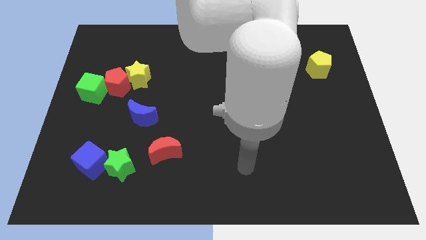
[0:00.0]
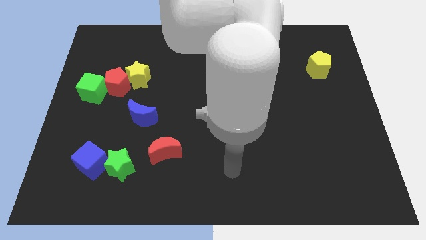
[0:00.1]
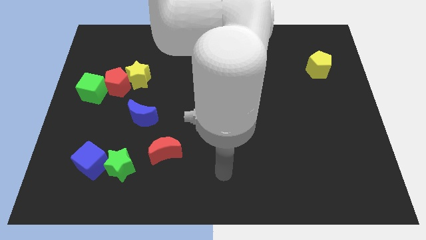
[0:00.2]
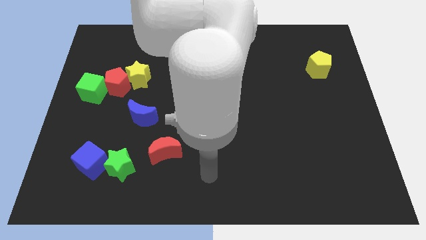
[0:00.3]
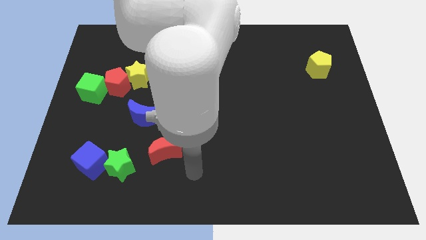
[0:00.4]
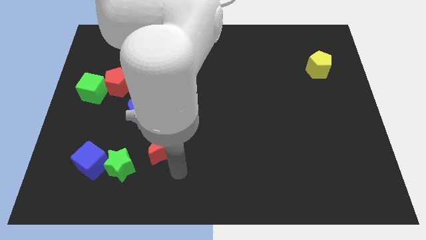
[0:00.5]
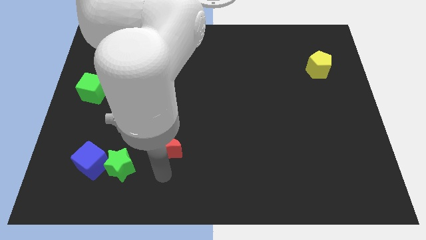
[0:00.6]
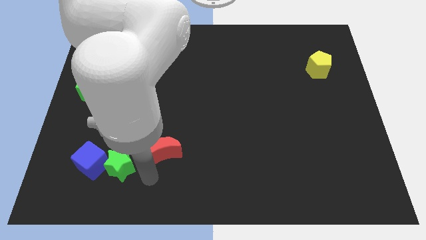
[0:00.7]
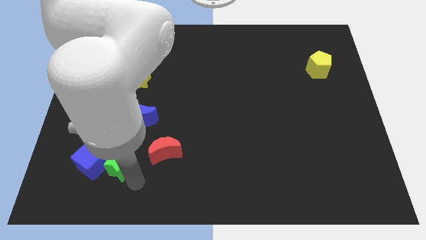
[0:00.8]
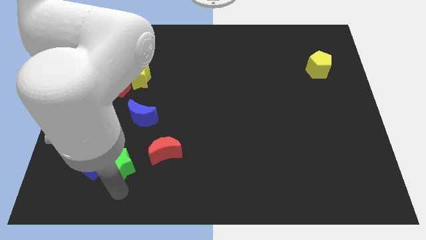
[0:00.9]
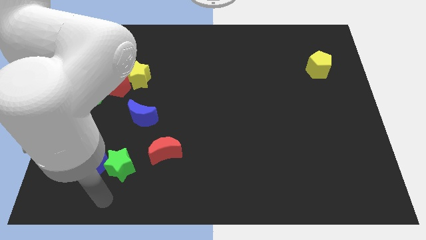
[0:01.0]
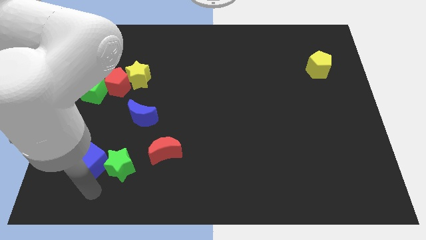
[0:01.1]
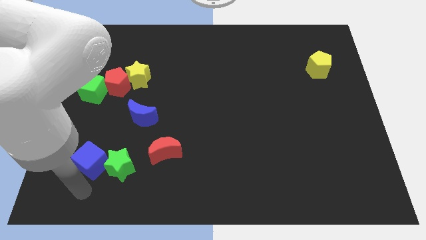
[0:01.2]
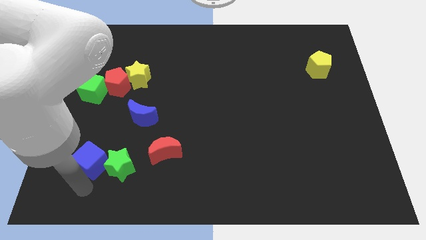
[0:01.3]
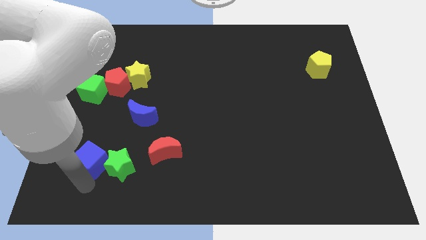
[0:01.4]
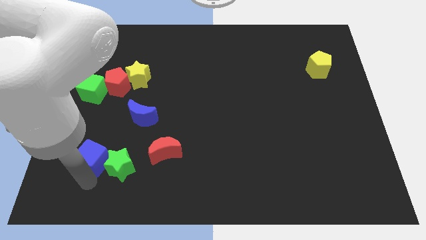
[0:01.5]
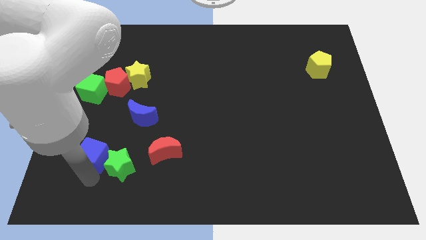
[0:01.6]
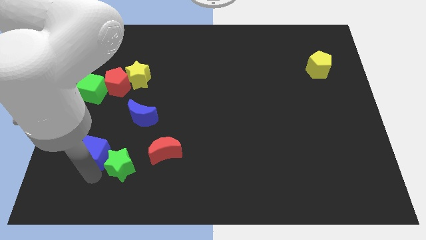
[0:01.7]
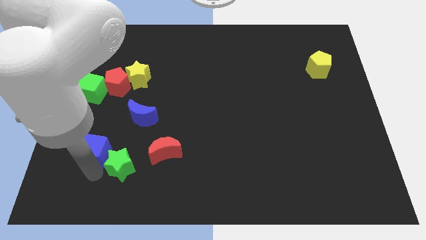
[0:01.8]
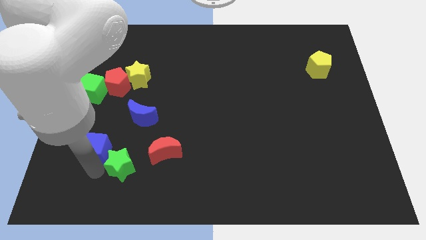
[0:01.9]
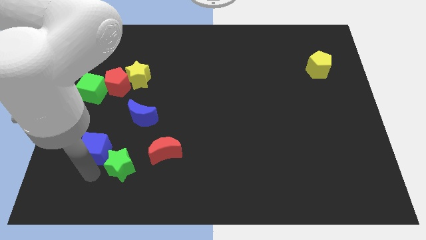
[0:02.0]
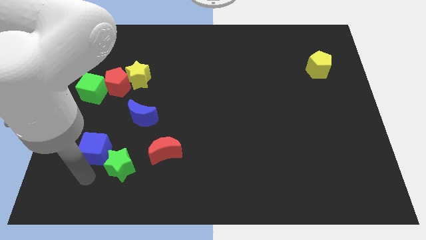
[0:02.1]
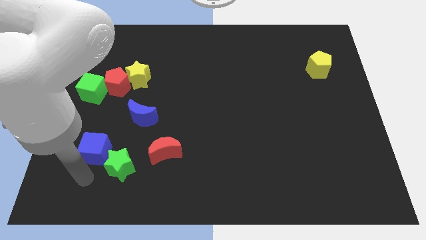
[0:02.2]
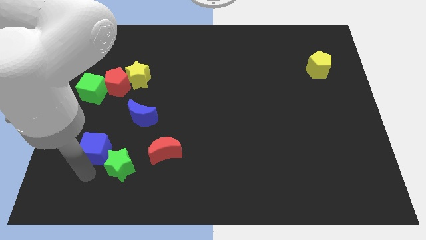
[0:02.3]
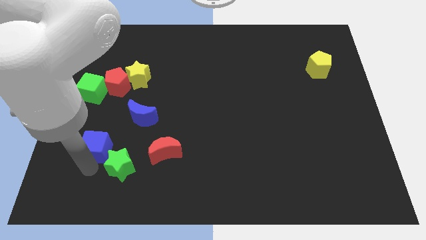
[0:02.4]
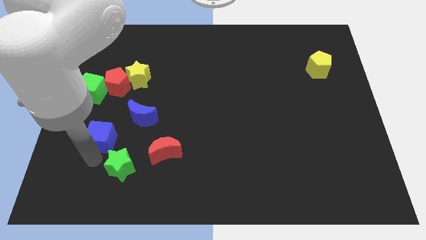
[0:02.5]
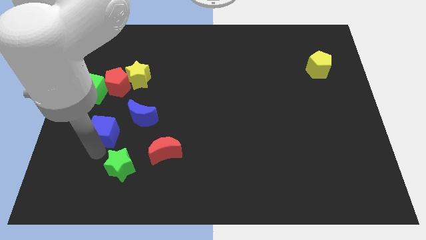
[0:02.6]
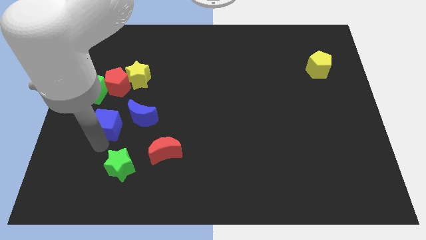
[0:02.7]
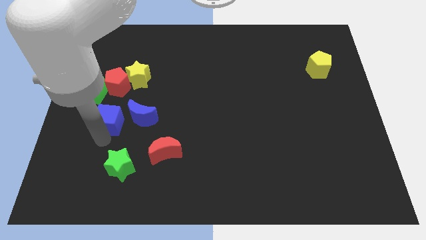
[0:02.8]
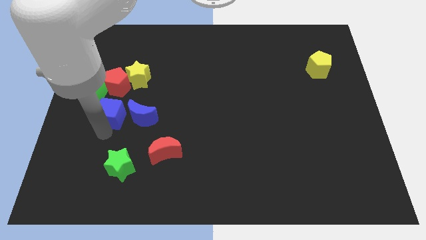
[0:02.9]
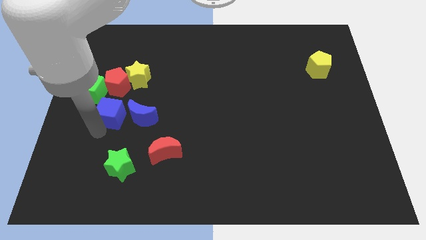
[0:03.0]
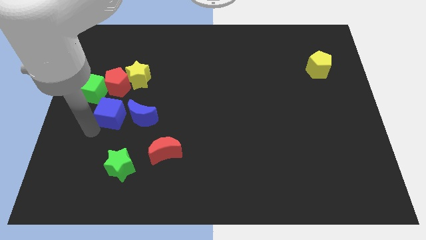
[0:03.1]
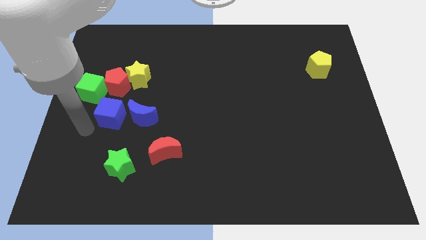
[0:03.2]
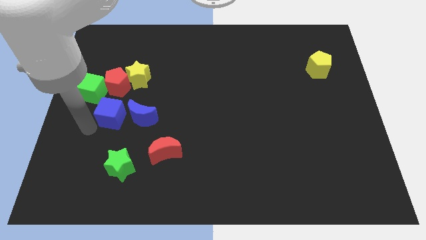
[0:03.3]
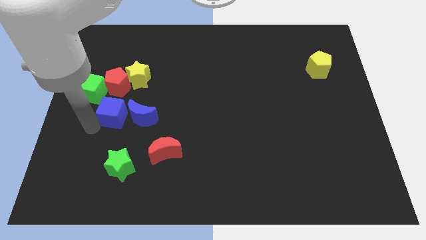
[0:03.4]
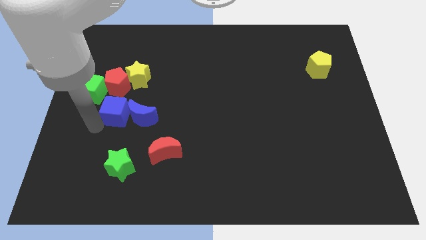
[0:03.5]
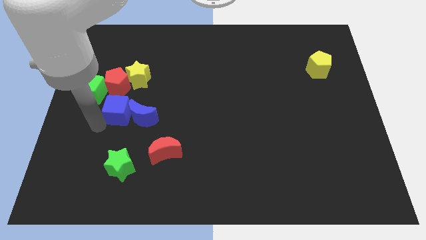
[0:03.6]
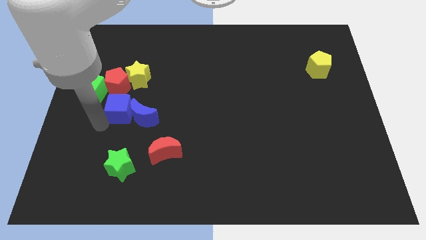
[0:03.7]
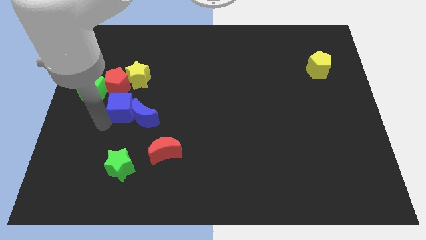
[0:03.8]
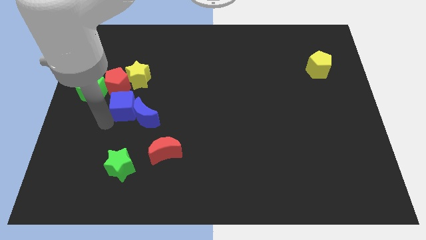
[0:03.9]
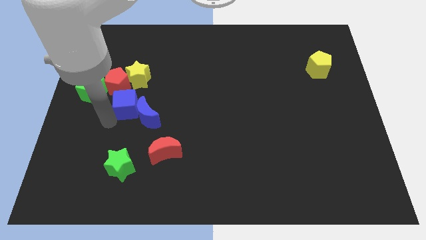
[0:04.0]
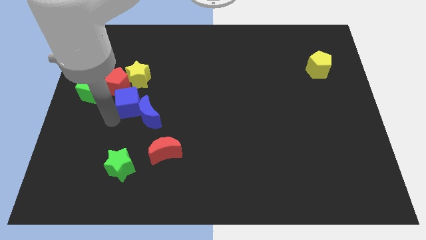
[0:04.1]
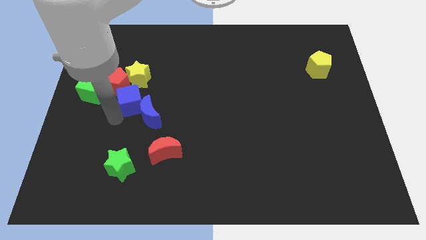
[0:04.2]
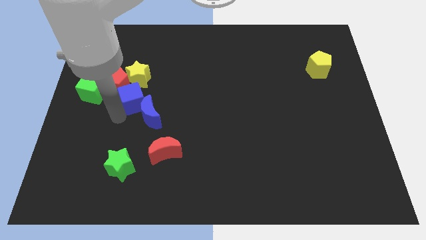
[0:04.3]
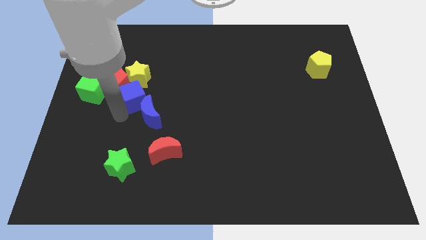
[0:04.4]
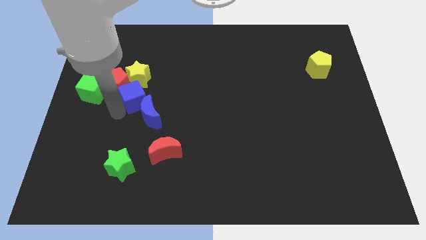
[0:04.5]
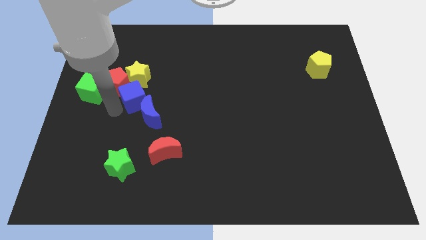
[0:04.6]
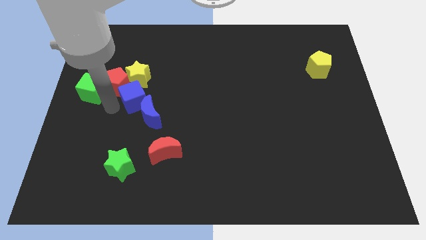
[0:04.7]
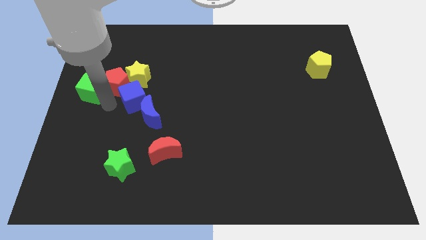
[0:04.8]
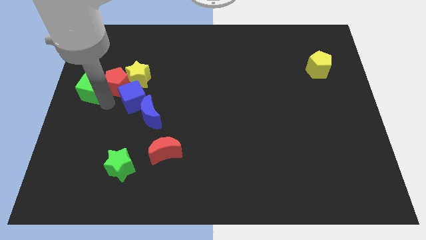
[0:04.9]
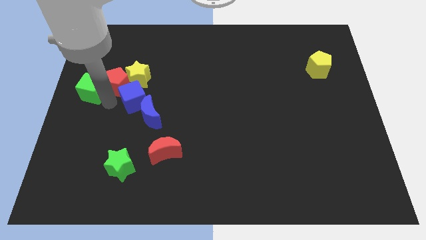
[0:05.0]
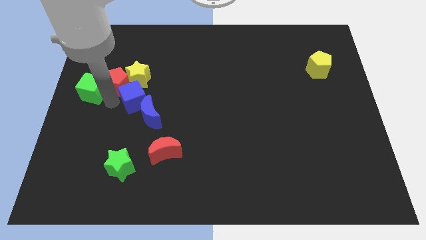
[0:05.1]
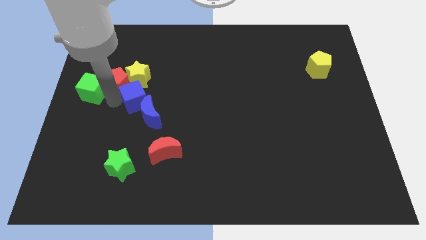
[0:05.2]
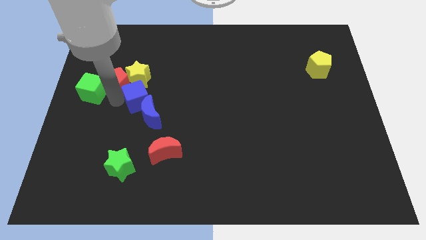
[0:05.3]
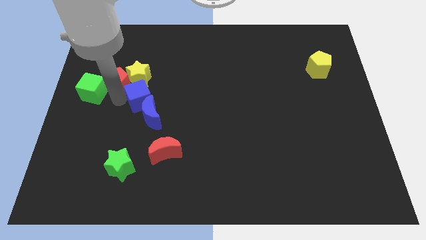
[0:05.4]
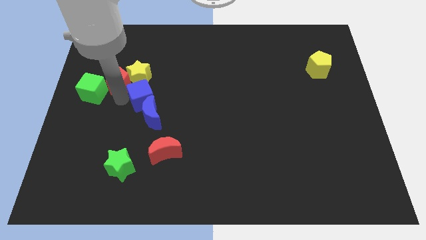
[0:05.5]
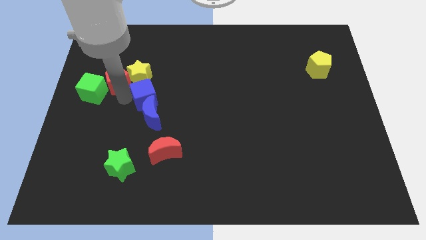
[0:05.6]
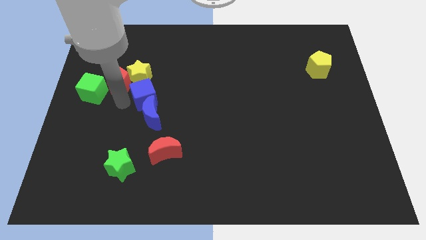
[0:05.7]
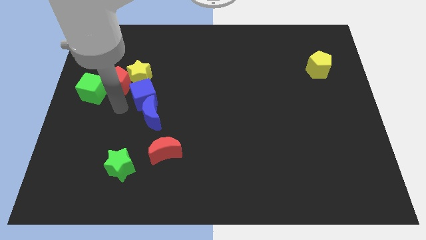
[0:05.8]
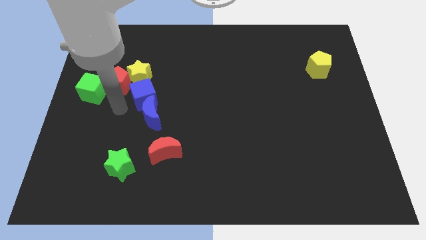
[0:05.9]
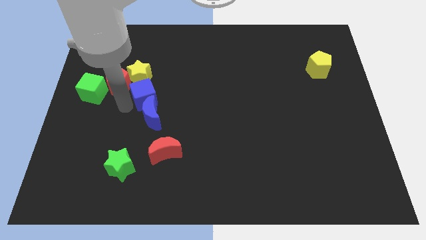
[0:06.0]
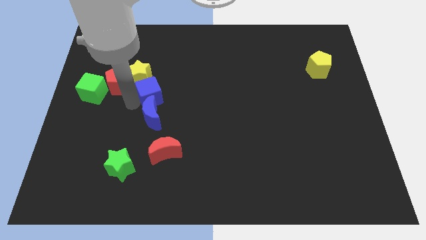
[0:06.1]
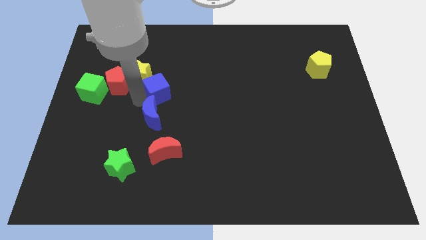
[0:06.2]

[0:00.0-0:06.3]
slide the blue cube up and then to the right

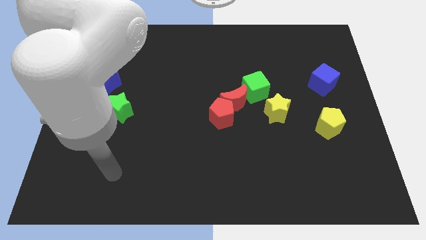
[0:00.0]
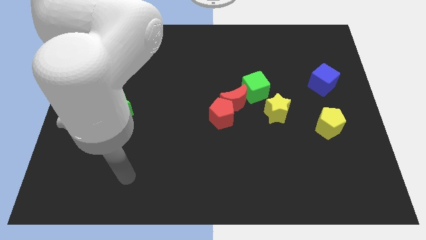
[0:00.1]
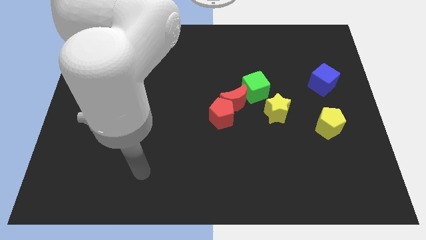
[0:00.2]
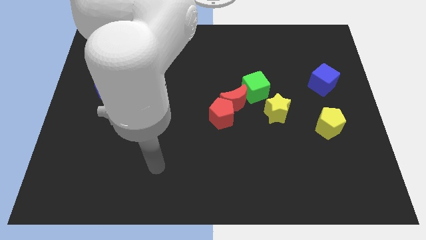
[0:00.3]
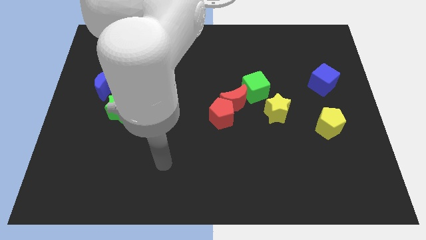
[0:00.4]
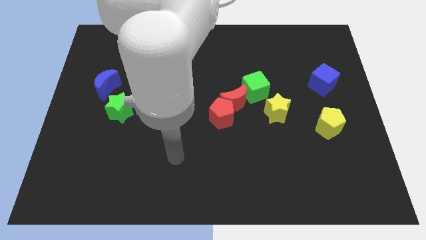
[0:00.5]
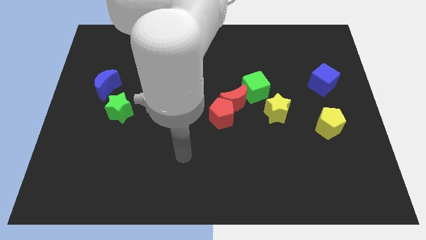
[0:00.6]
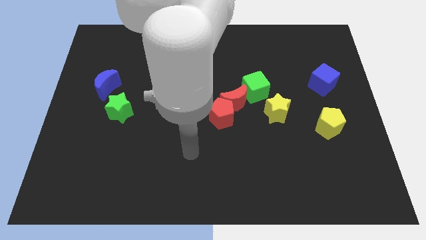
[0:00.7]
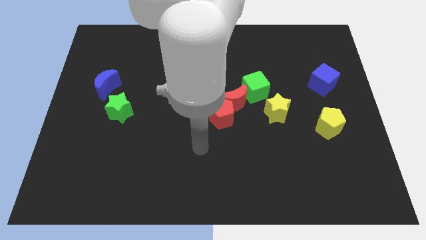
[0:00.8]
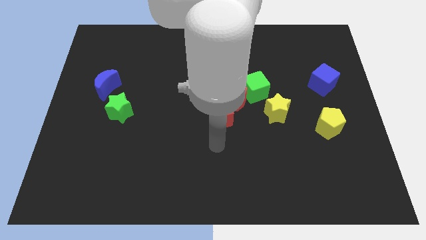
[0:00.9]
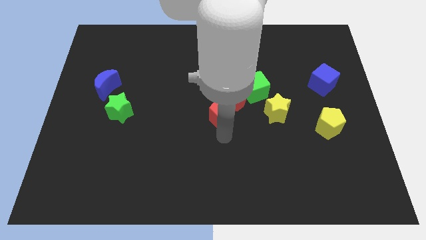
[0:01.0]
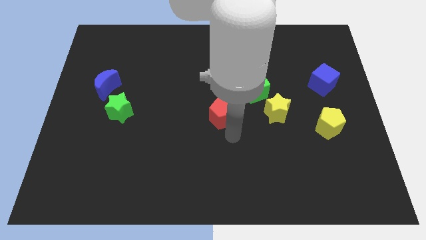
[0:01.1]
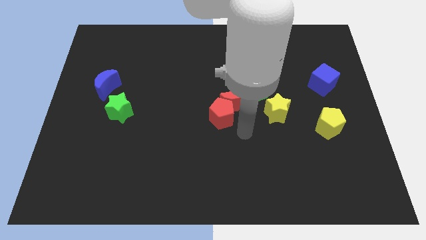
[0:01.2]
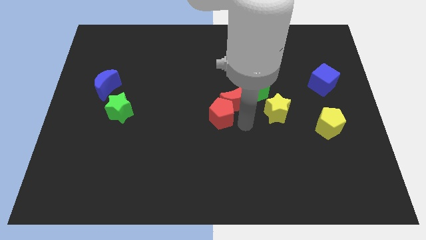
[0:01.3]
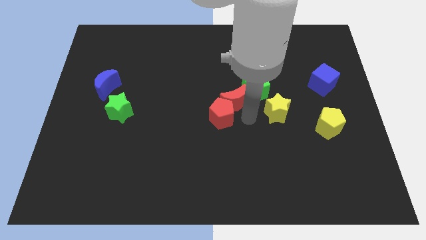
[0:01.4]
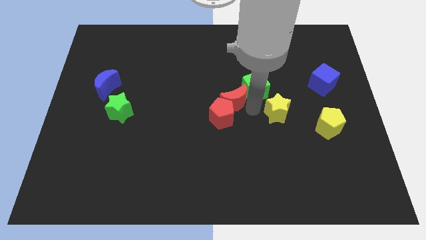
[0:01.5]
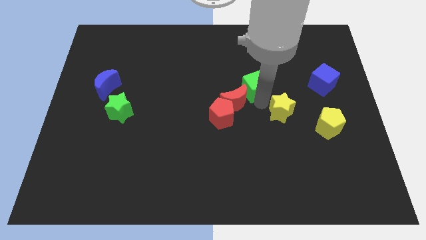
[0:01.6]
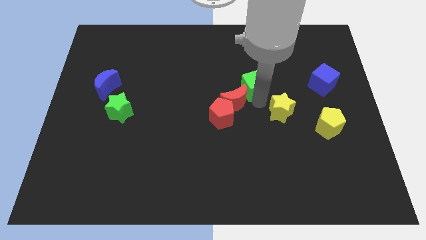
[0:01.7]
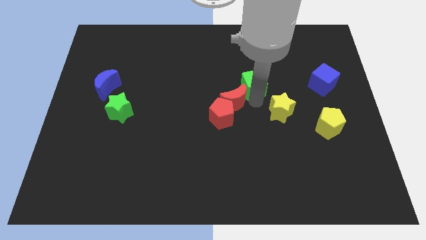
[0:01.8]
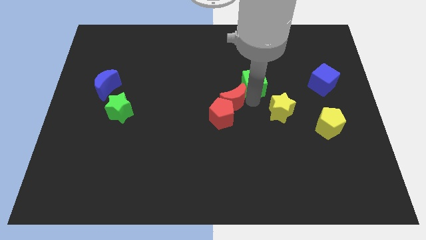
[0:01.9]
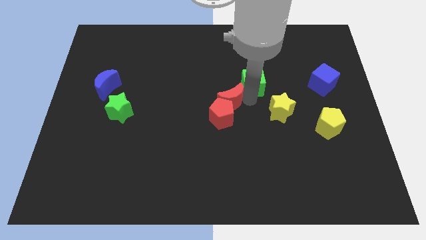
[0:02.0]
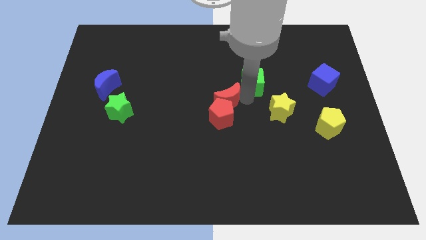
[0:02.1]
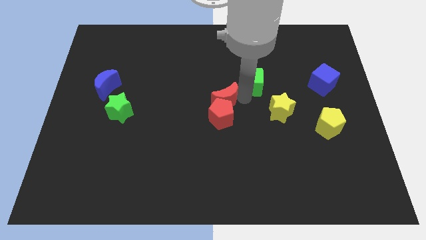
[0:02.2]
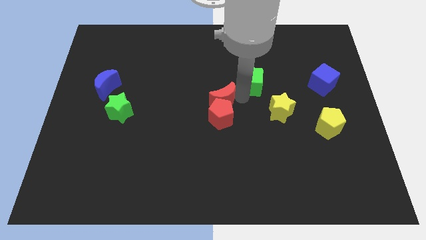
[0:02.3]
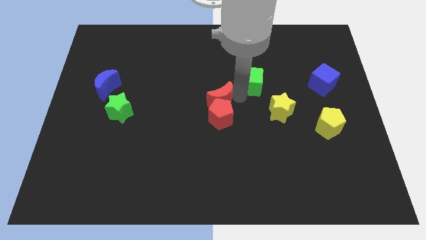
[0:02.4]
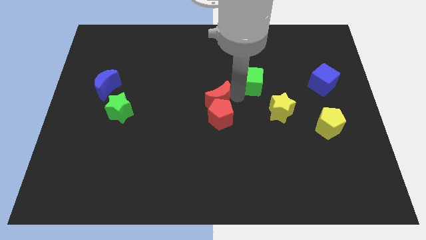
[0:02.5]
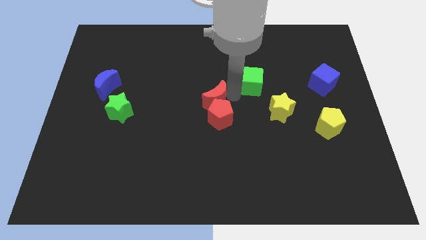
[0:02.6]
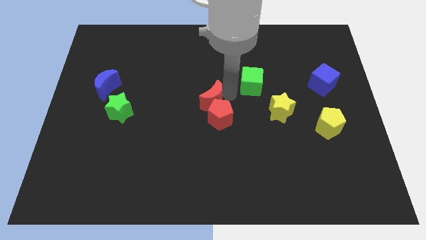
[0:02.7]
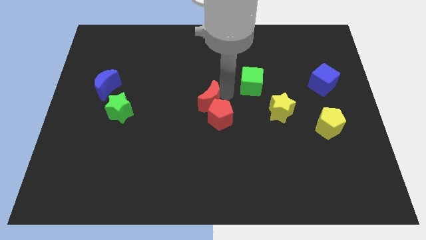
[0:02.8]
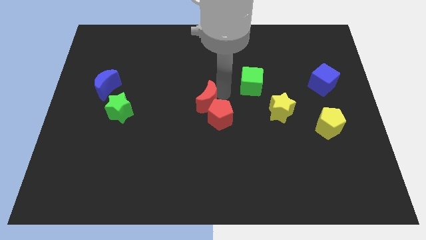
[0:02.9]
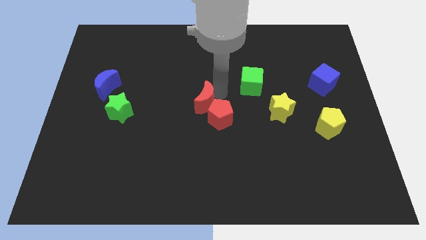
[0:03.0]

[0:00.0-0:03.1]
slightly move the red moon to the left
